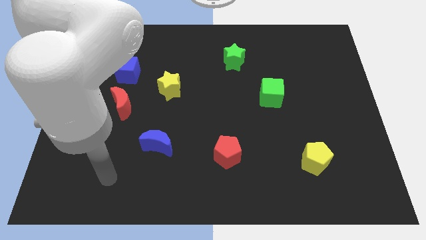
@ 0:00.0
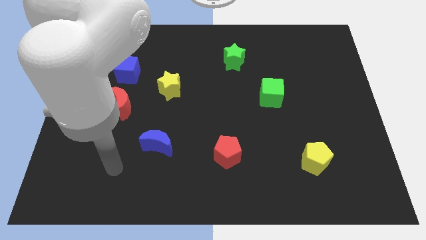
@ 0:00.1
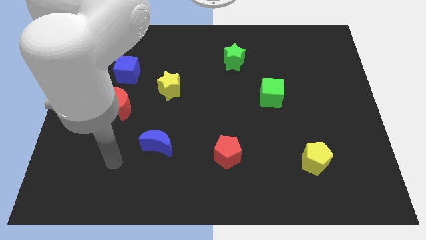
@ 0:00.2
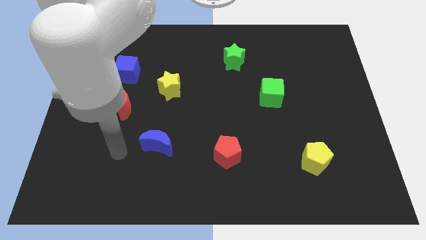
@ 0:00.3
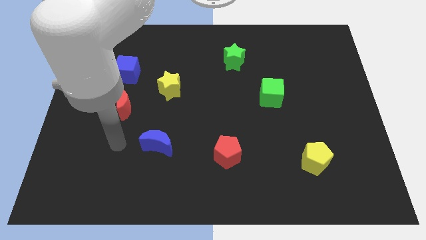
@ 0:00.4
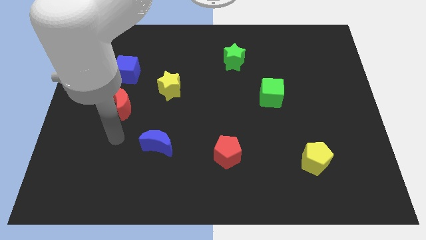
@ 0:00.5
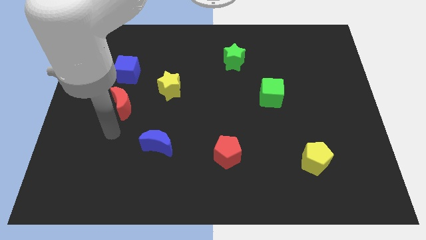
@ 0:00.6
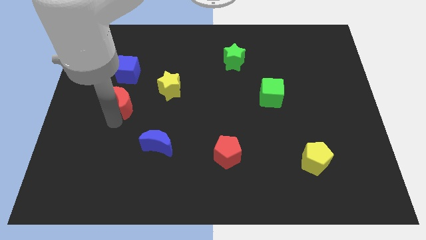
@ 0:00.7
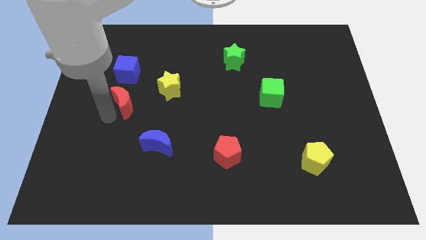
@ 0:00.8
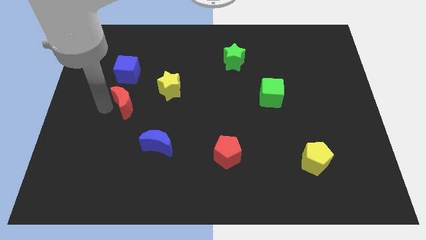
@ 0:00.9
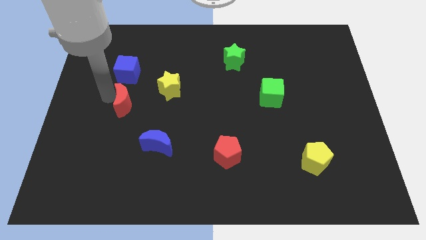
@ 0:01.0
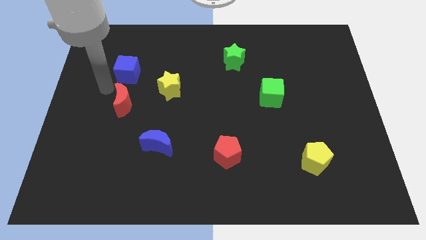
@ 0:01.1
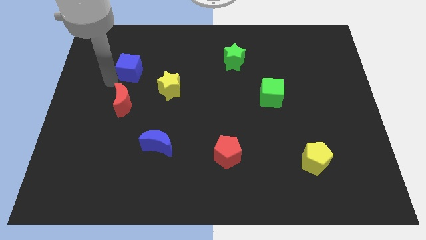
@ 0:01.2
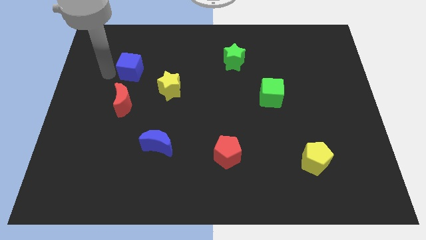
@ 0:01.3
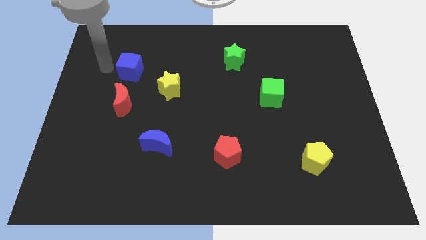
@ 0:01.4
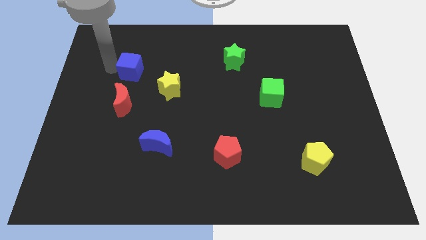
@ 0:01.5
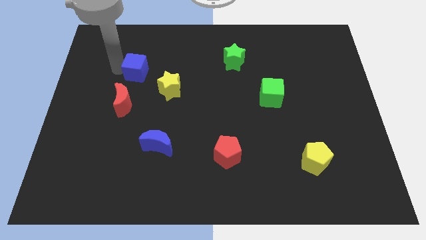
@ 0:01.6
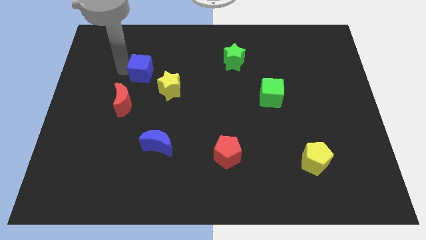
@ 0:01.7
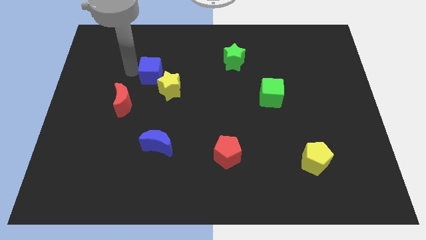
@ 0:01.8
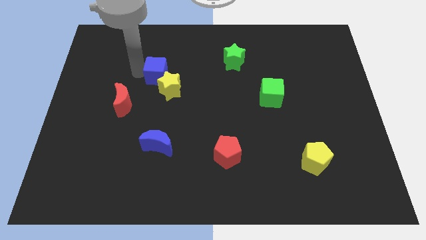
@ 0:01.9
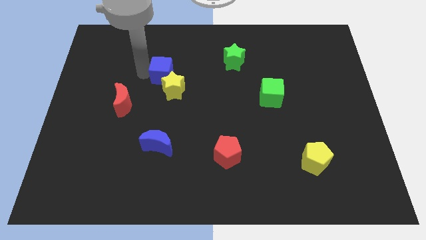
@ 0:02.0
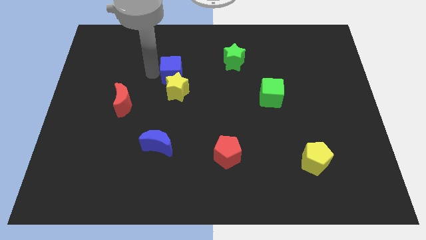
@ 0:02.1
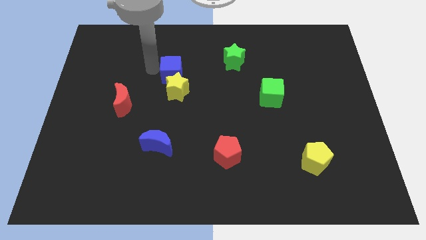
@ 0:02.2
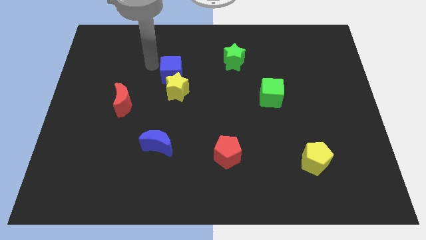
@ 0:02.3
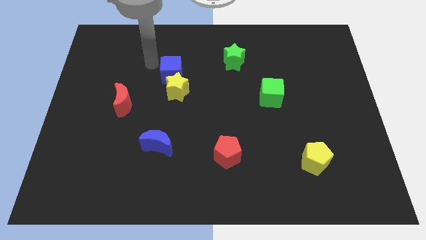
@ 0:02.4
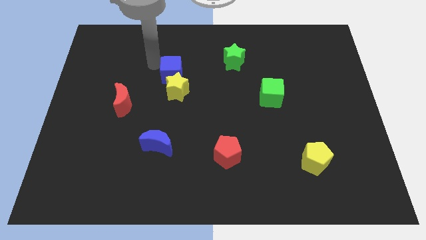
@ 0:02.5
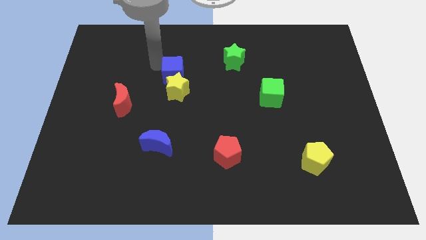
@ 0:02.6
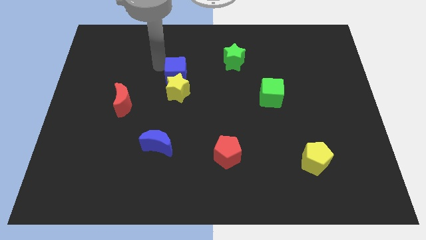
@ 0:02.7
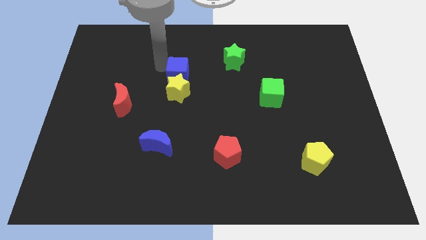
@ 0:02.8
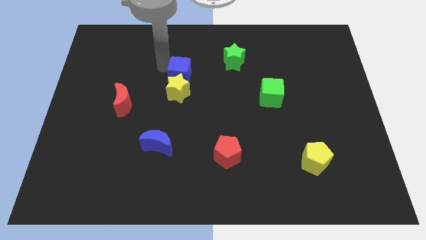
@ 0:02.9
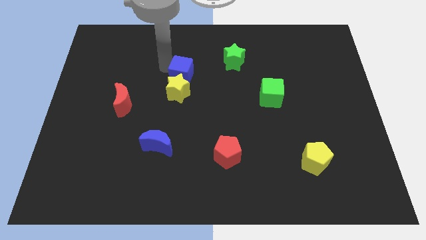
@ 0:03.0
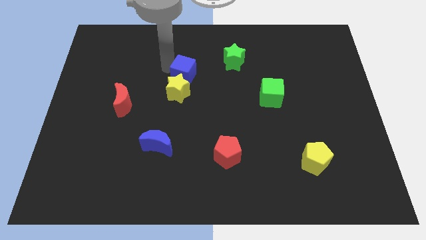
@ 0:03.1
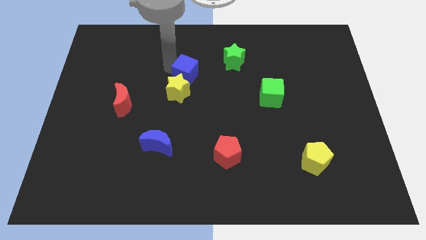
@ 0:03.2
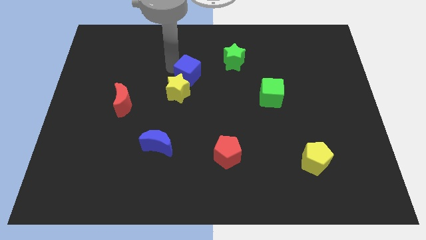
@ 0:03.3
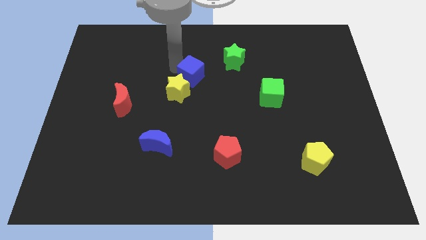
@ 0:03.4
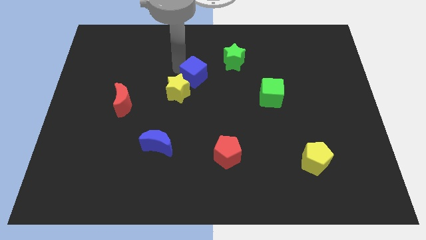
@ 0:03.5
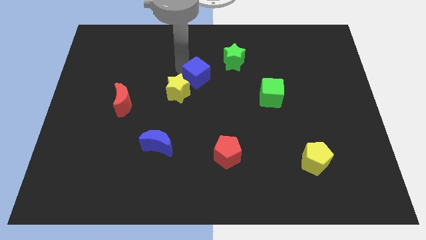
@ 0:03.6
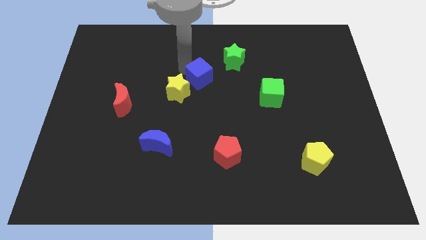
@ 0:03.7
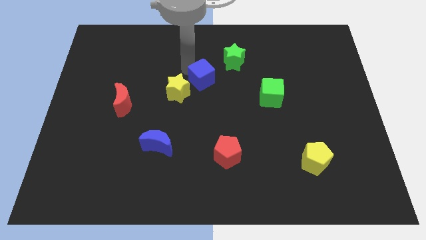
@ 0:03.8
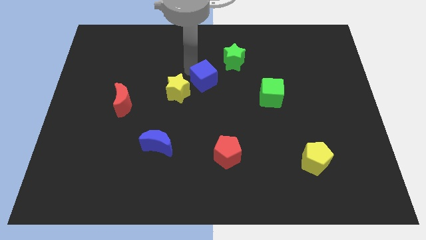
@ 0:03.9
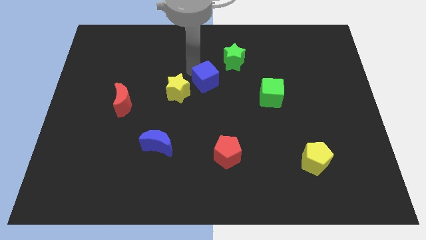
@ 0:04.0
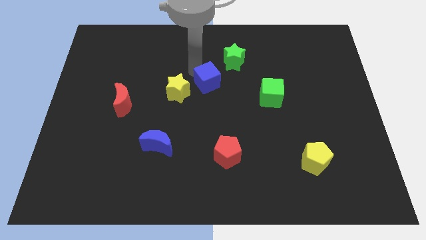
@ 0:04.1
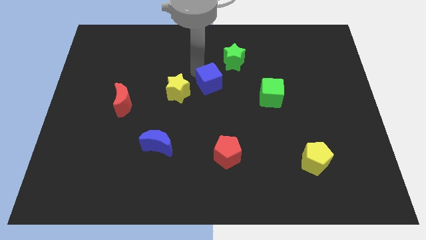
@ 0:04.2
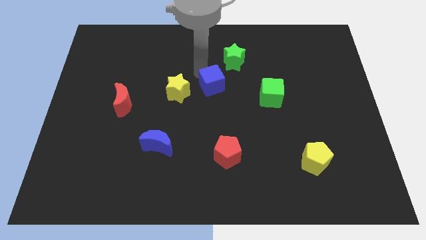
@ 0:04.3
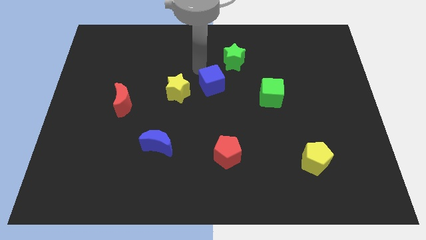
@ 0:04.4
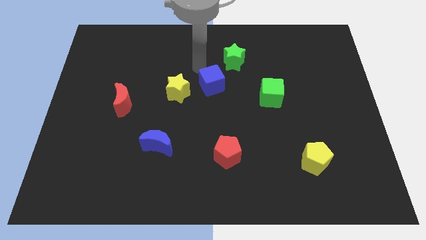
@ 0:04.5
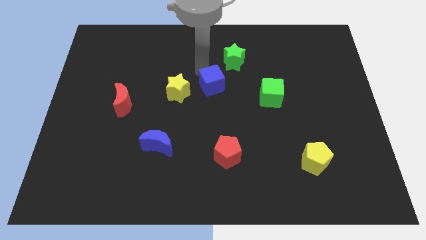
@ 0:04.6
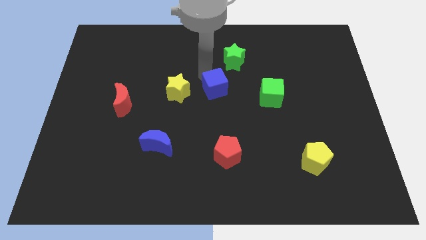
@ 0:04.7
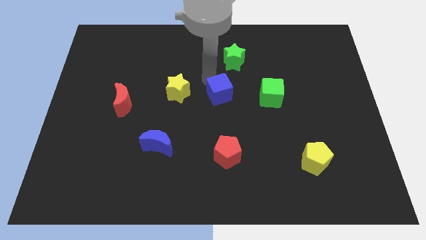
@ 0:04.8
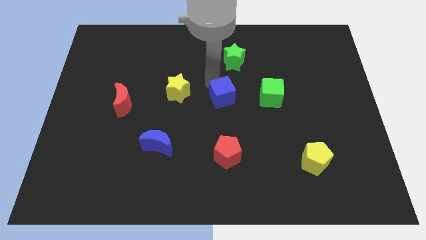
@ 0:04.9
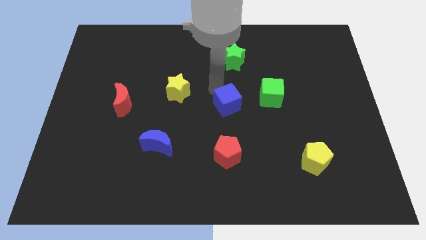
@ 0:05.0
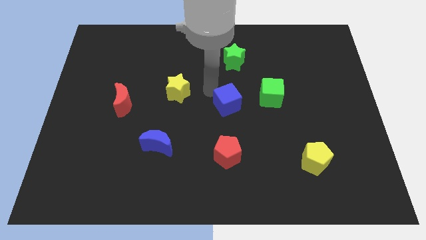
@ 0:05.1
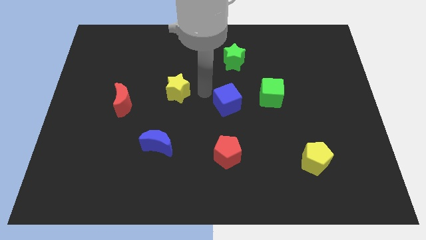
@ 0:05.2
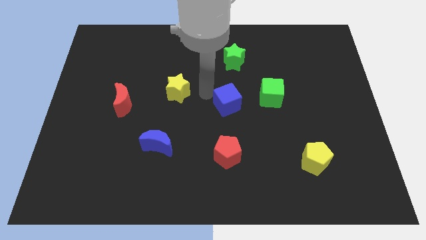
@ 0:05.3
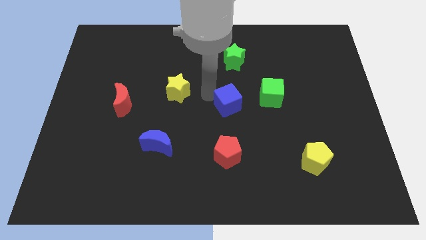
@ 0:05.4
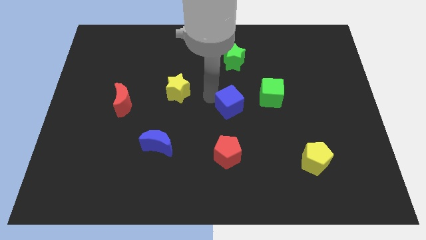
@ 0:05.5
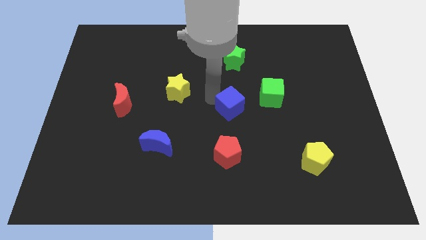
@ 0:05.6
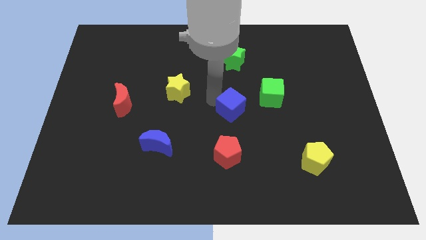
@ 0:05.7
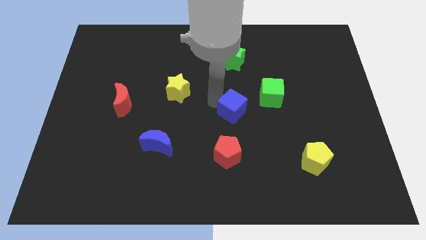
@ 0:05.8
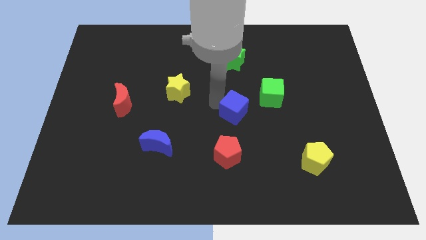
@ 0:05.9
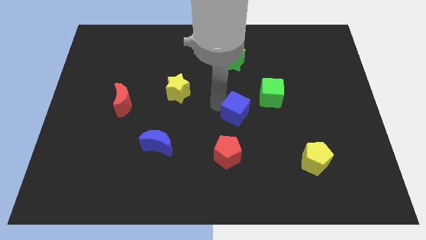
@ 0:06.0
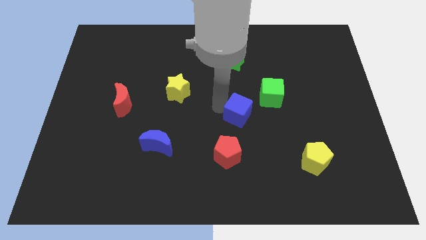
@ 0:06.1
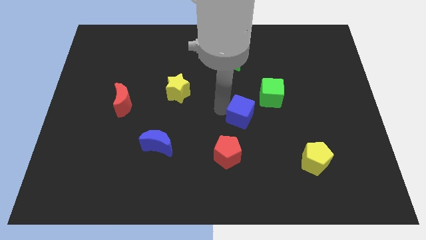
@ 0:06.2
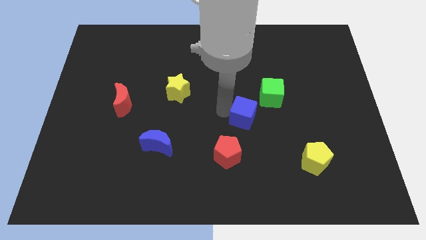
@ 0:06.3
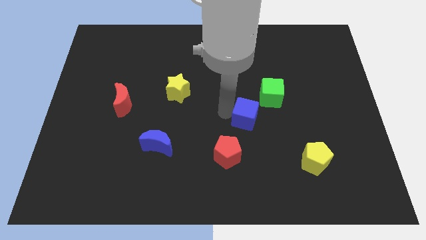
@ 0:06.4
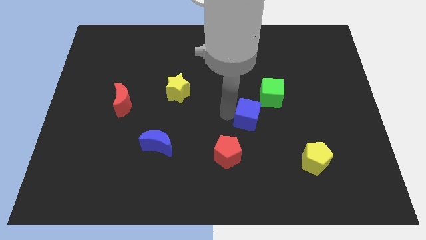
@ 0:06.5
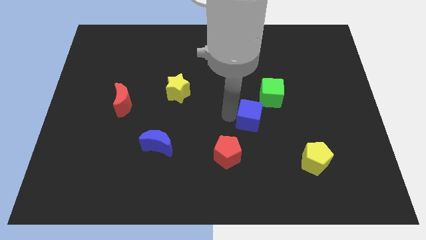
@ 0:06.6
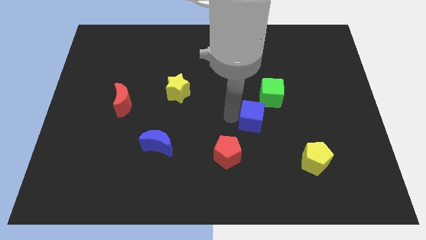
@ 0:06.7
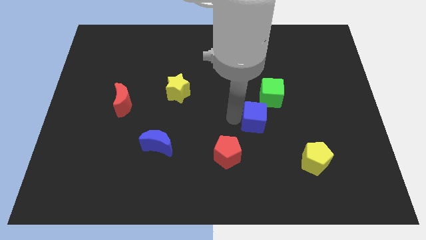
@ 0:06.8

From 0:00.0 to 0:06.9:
put the blue cube to the bottom side of the green cube
